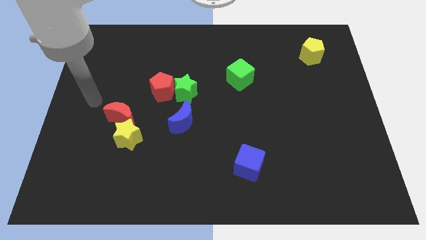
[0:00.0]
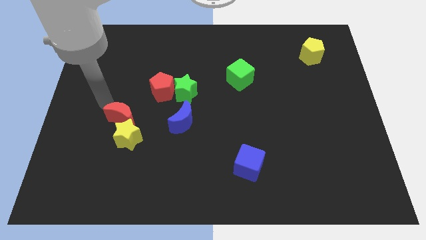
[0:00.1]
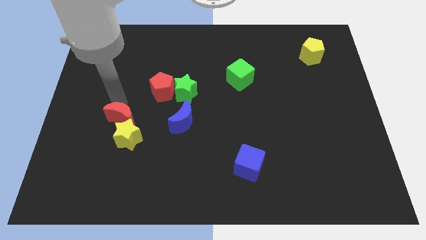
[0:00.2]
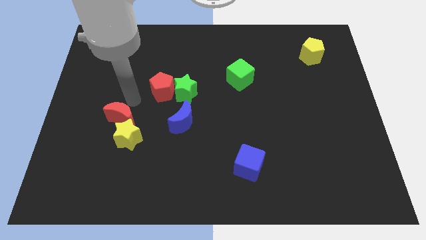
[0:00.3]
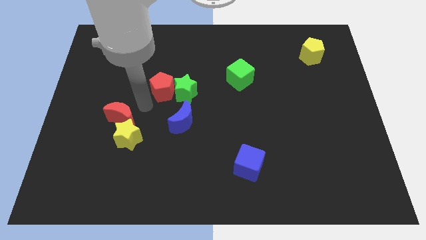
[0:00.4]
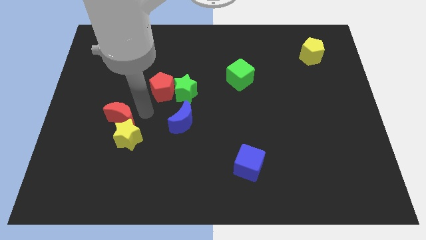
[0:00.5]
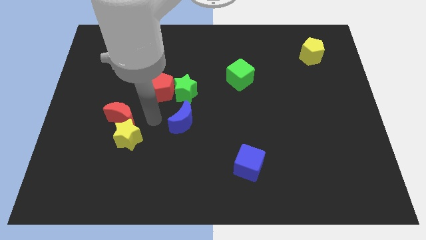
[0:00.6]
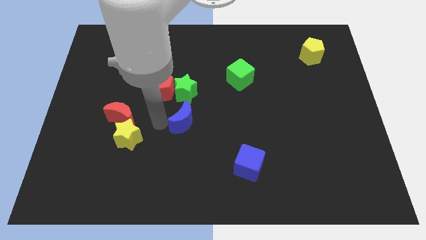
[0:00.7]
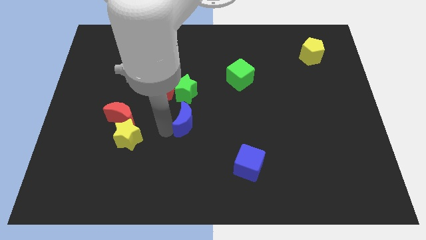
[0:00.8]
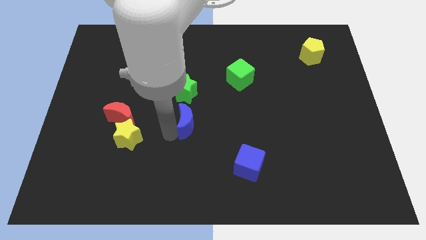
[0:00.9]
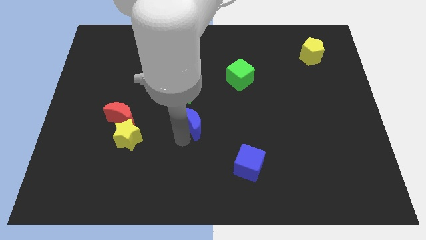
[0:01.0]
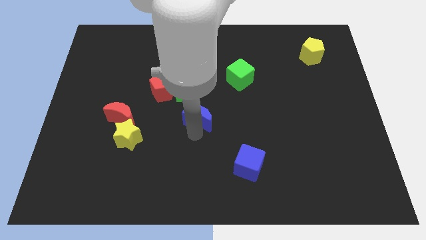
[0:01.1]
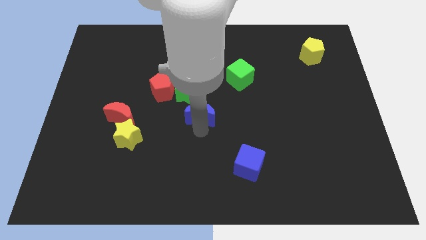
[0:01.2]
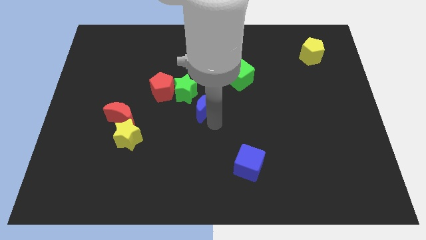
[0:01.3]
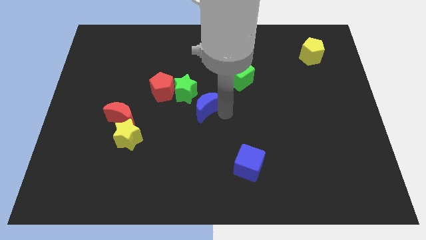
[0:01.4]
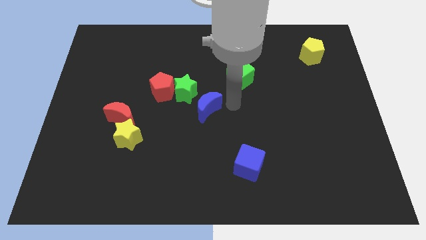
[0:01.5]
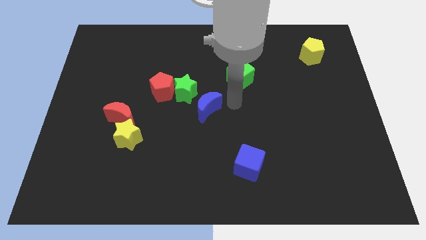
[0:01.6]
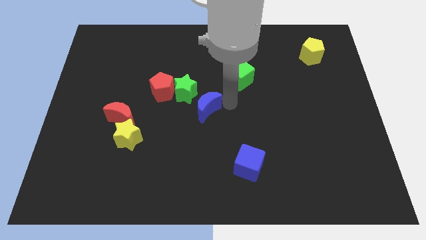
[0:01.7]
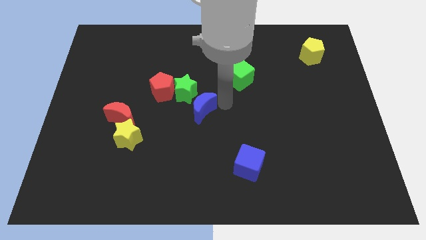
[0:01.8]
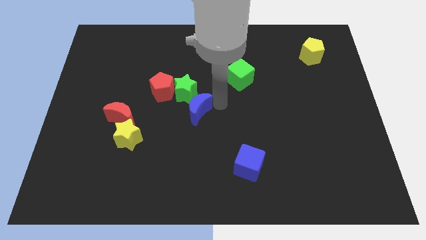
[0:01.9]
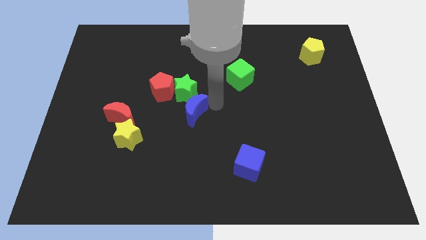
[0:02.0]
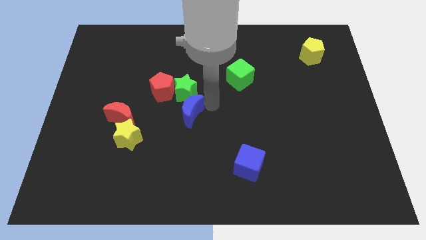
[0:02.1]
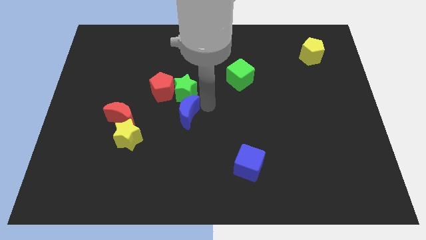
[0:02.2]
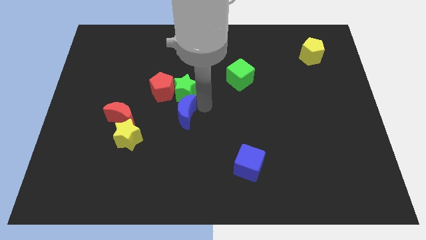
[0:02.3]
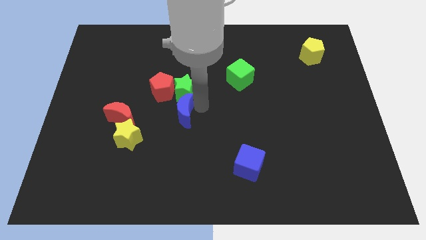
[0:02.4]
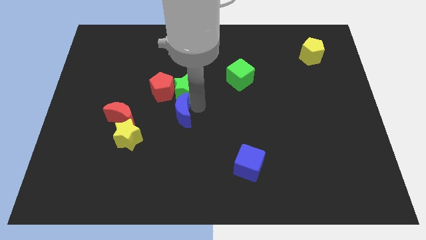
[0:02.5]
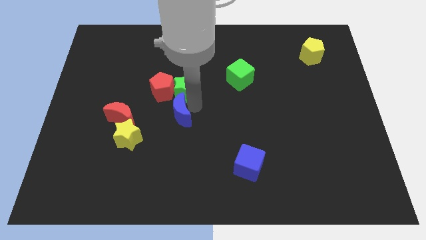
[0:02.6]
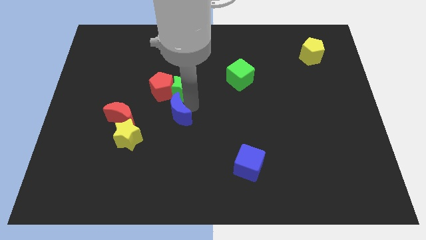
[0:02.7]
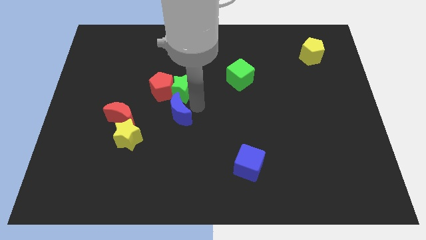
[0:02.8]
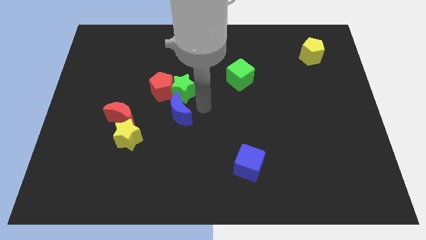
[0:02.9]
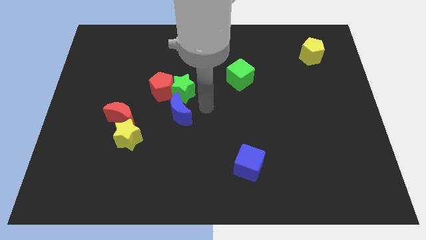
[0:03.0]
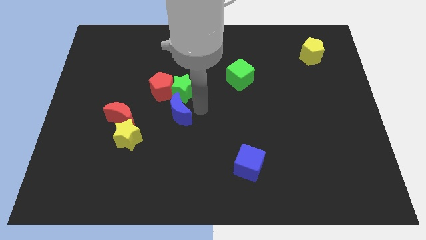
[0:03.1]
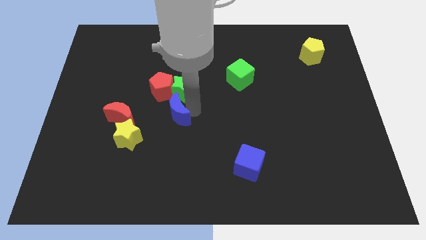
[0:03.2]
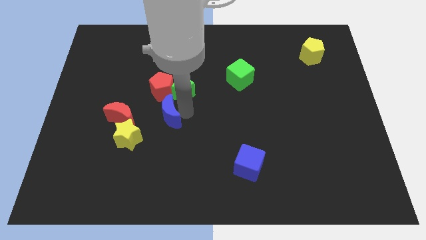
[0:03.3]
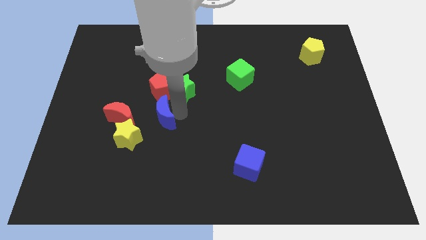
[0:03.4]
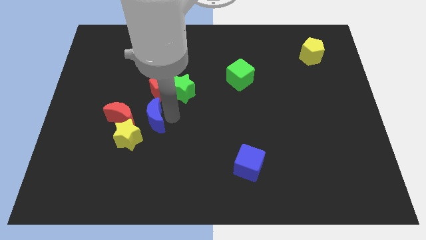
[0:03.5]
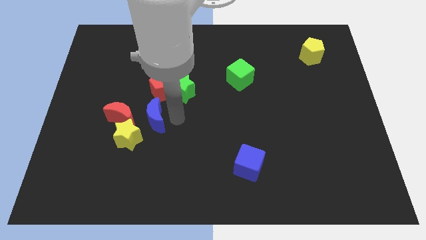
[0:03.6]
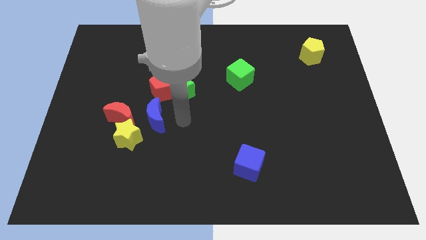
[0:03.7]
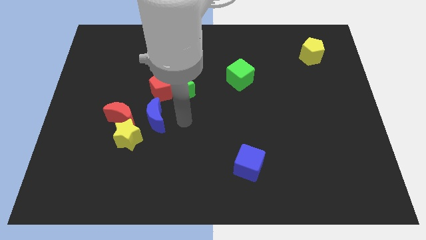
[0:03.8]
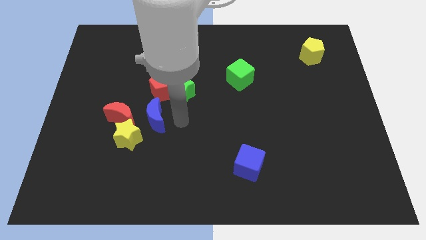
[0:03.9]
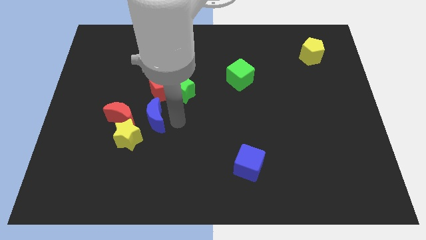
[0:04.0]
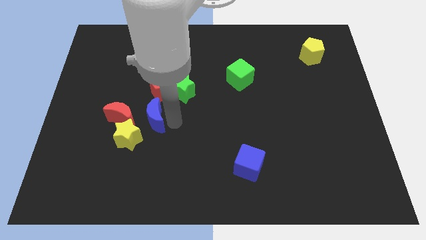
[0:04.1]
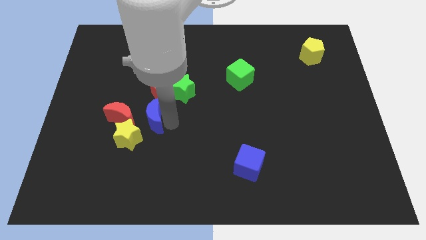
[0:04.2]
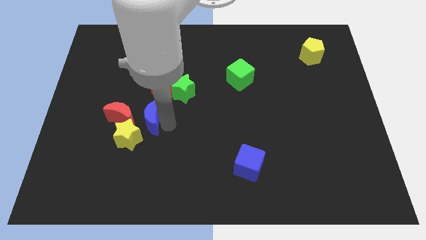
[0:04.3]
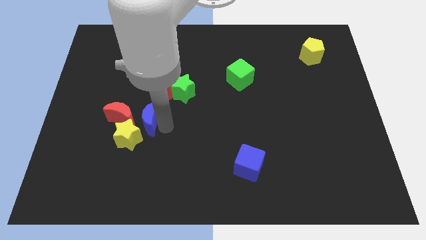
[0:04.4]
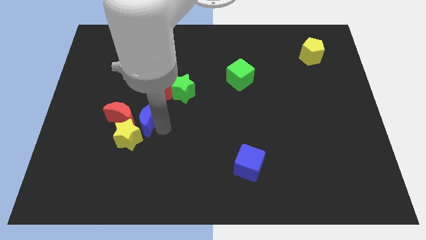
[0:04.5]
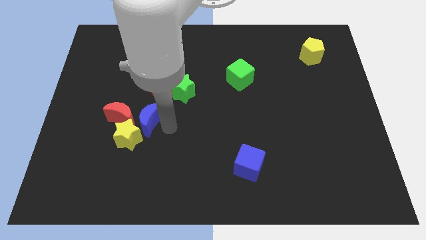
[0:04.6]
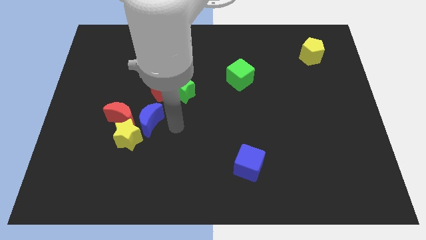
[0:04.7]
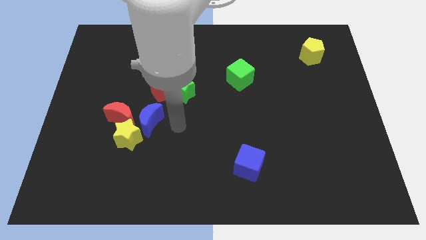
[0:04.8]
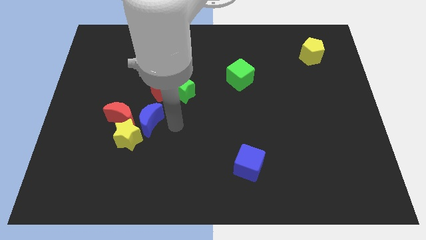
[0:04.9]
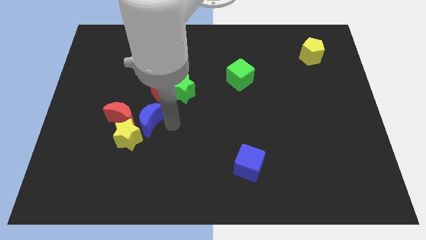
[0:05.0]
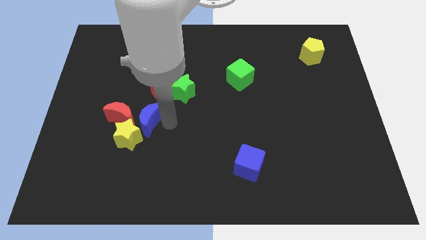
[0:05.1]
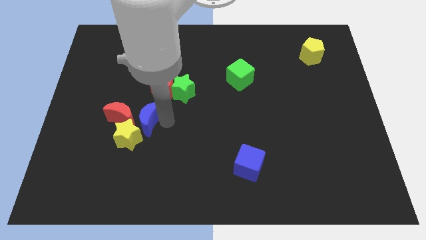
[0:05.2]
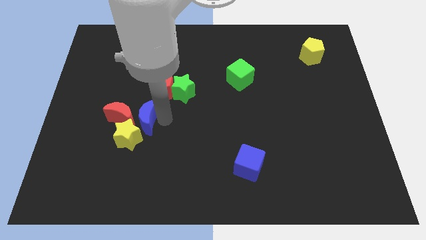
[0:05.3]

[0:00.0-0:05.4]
slide the blue moon close to the red moon

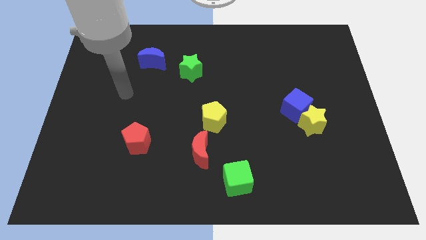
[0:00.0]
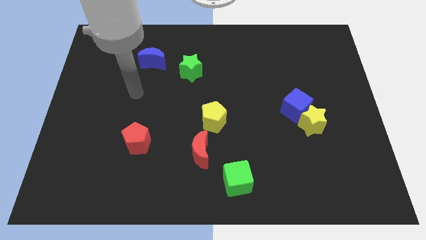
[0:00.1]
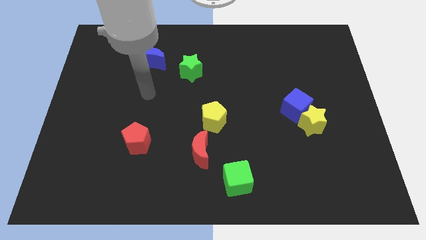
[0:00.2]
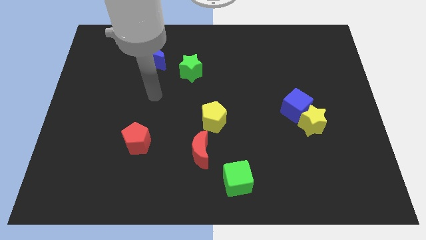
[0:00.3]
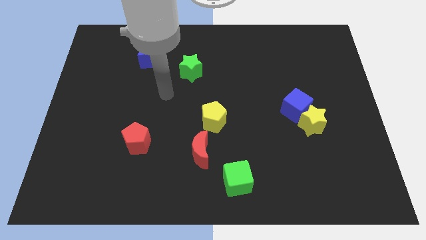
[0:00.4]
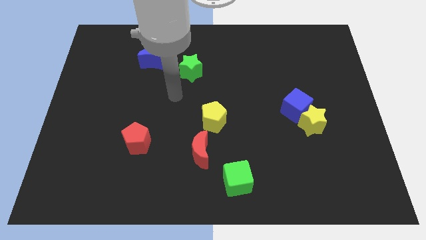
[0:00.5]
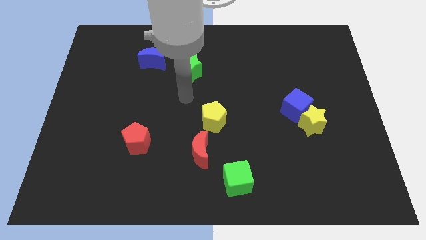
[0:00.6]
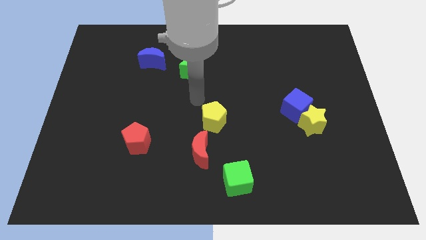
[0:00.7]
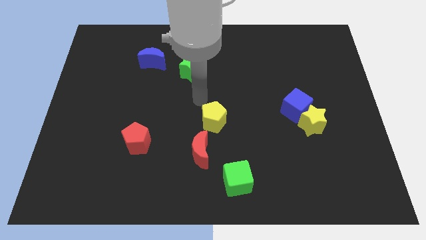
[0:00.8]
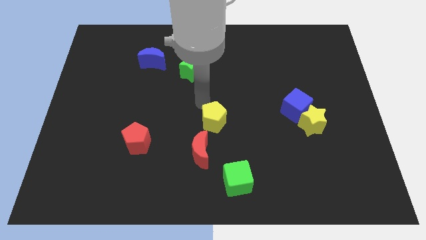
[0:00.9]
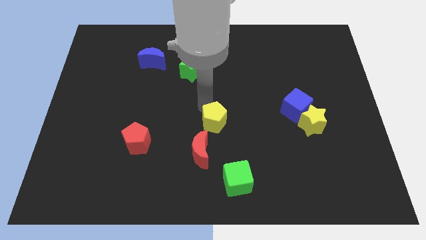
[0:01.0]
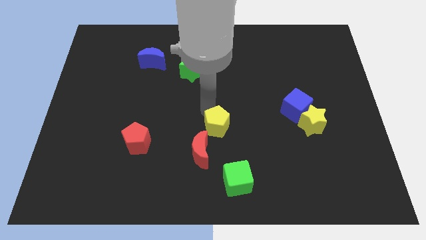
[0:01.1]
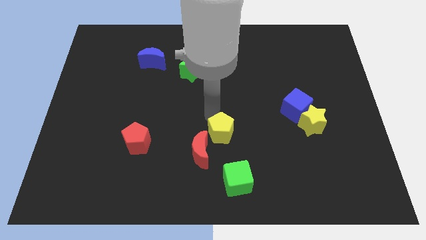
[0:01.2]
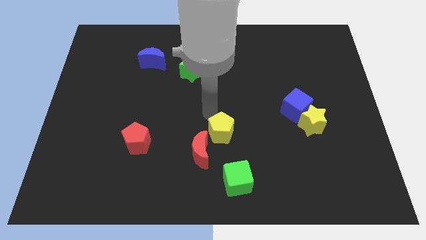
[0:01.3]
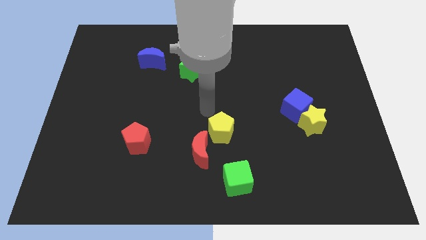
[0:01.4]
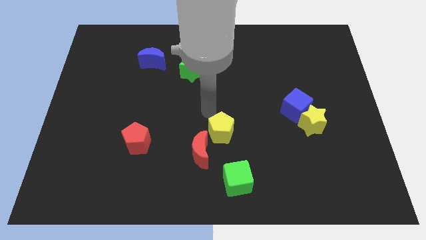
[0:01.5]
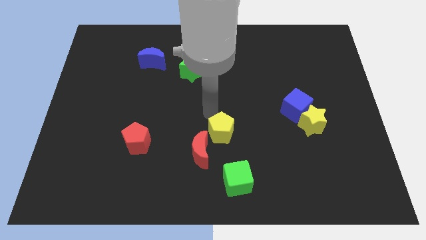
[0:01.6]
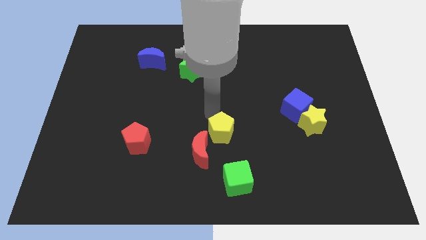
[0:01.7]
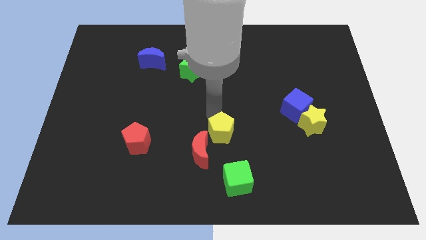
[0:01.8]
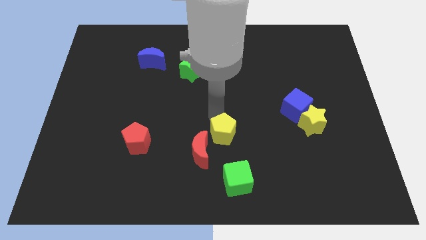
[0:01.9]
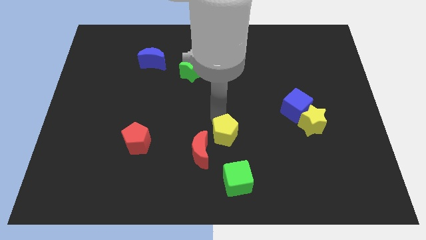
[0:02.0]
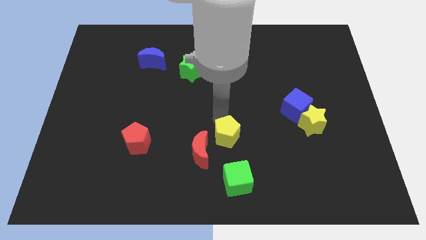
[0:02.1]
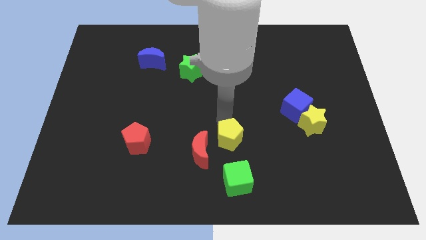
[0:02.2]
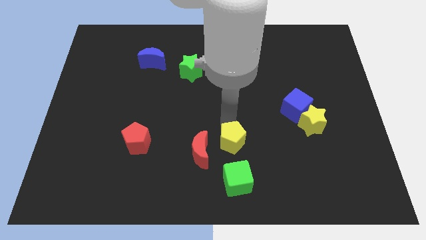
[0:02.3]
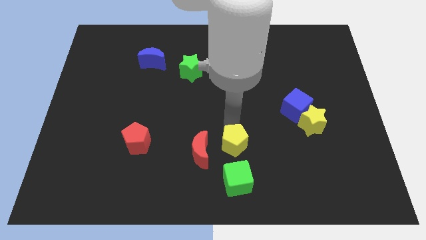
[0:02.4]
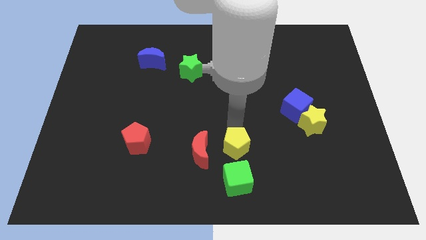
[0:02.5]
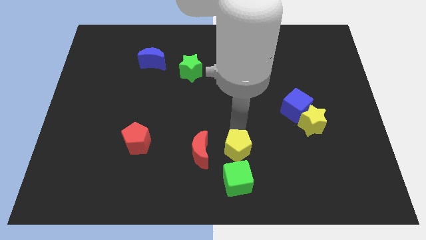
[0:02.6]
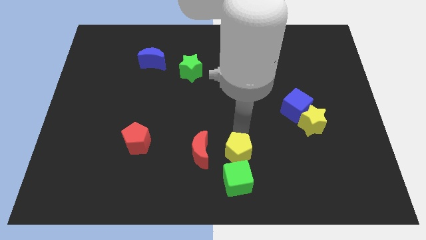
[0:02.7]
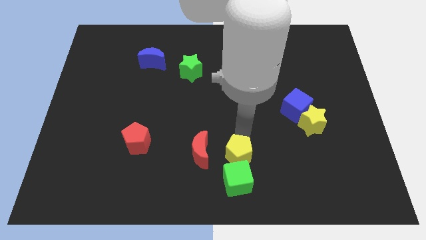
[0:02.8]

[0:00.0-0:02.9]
move the yellow pentagon to the green cube
